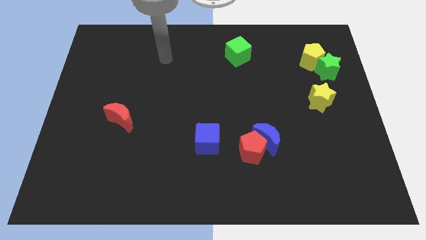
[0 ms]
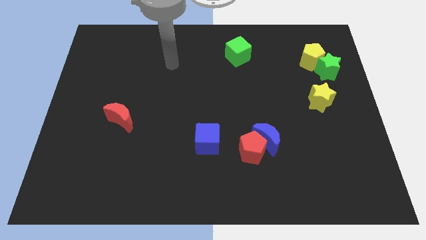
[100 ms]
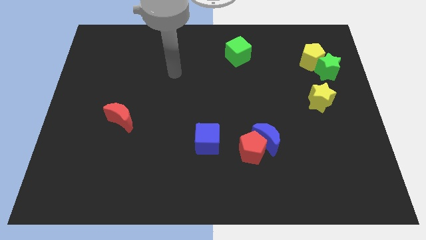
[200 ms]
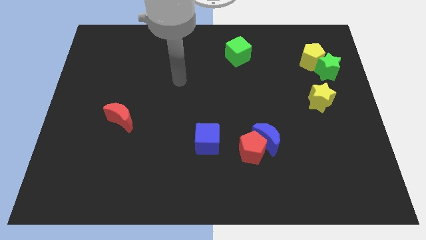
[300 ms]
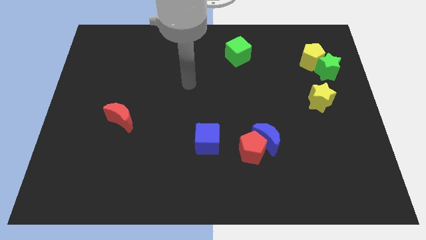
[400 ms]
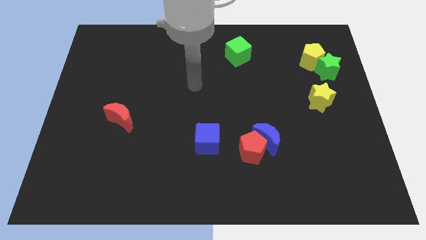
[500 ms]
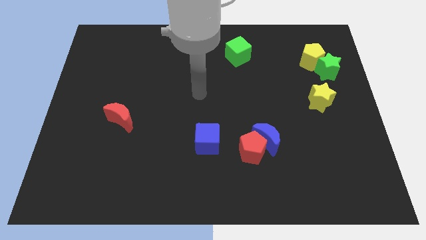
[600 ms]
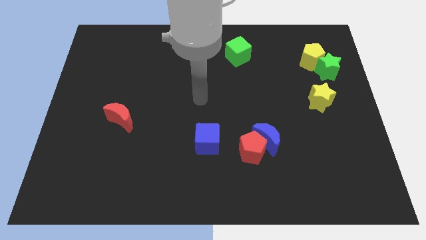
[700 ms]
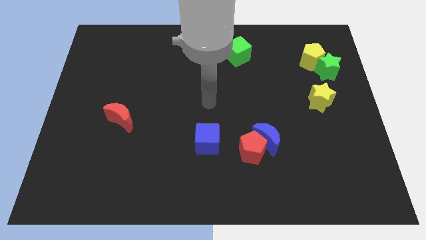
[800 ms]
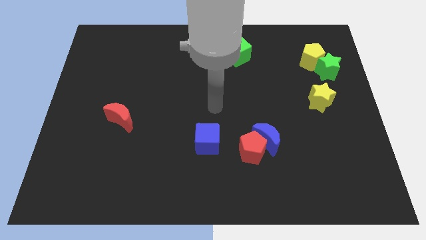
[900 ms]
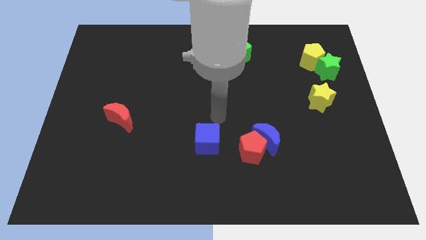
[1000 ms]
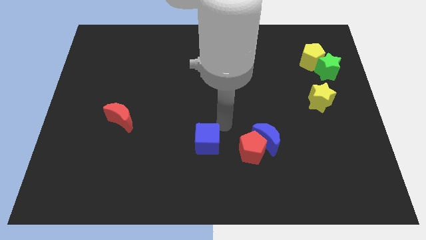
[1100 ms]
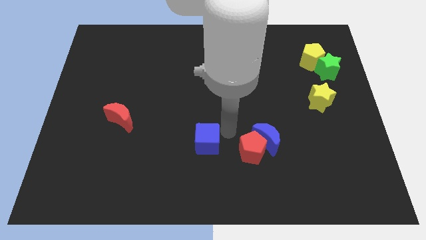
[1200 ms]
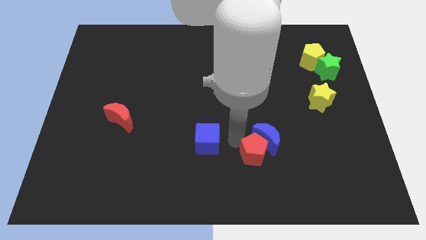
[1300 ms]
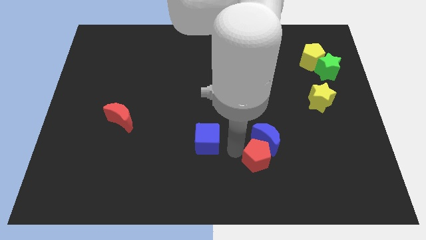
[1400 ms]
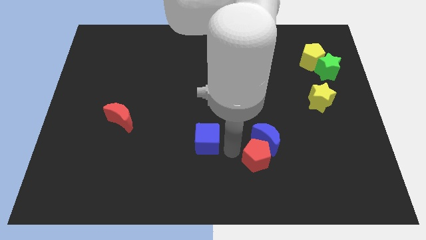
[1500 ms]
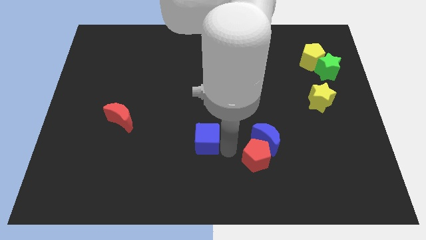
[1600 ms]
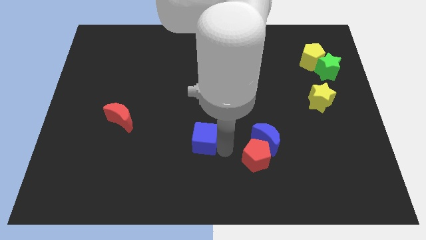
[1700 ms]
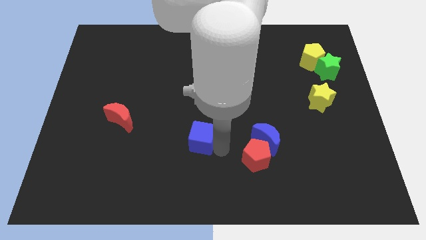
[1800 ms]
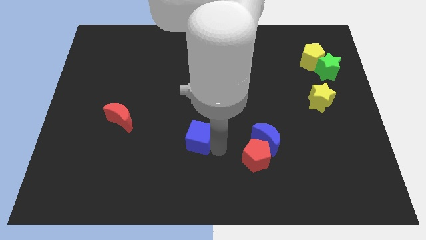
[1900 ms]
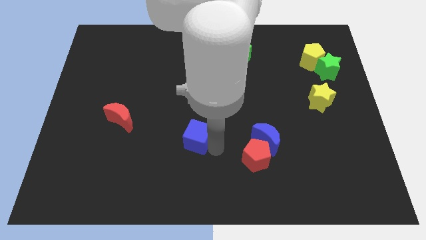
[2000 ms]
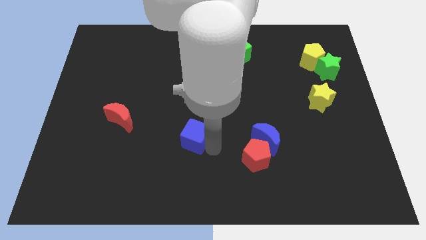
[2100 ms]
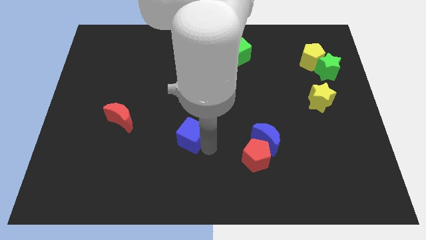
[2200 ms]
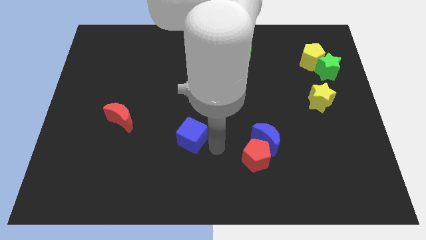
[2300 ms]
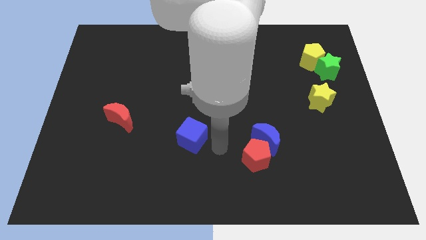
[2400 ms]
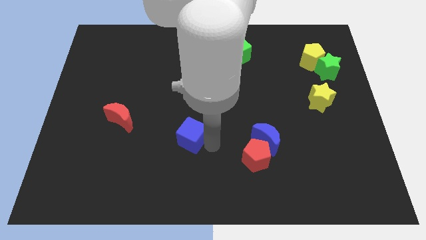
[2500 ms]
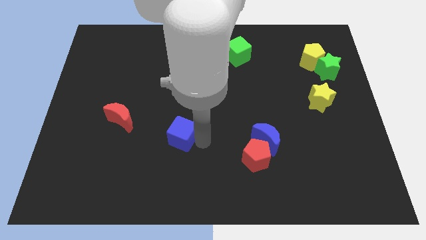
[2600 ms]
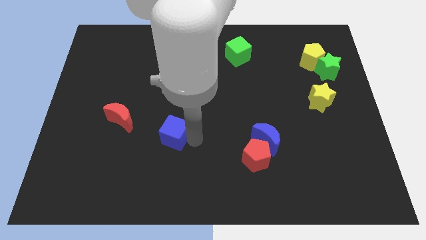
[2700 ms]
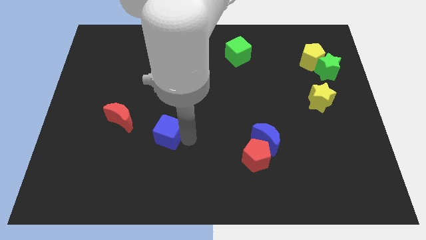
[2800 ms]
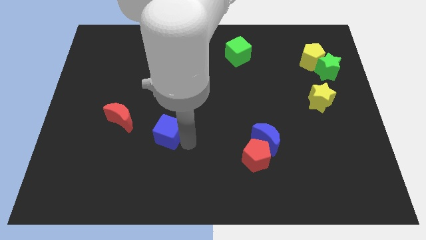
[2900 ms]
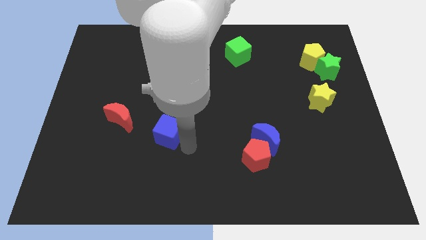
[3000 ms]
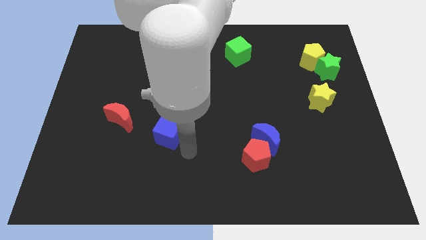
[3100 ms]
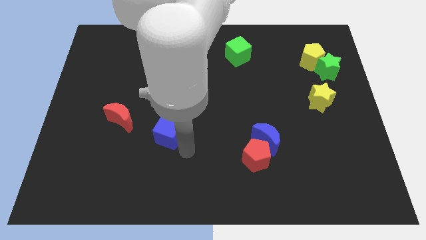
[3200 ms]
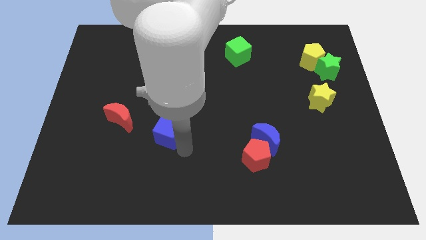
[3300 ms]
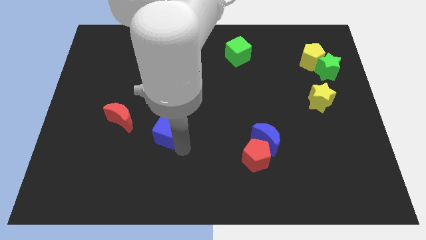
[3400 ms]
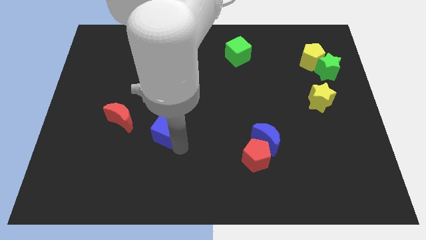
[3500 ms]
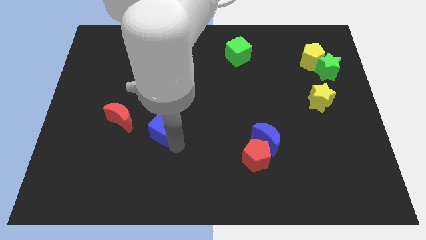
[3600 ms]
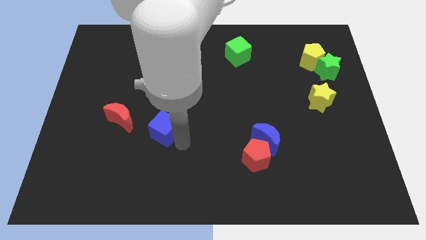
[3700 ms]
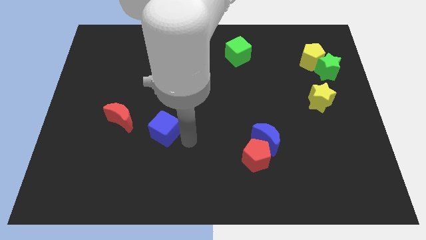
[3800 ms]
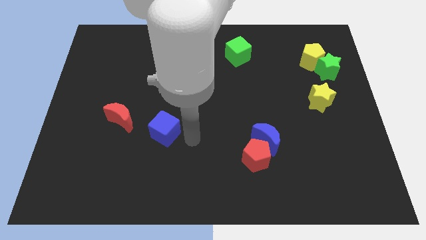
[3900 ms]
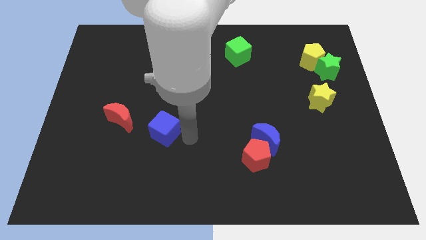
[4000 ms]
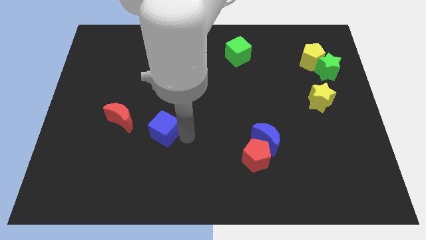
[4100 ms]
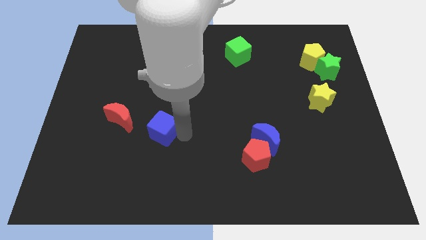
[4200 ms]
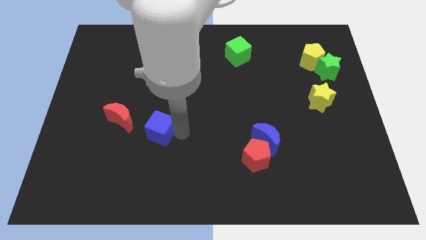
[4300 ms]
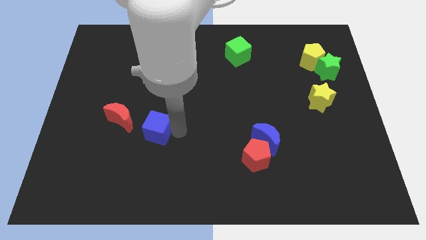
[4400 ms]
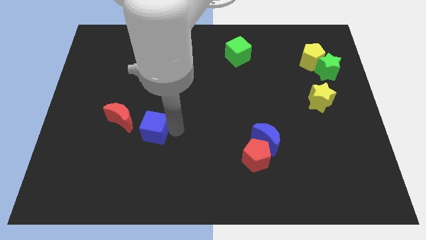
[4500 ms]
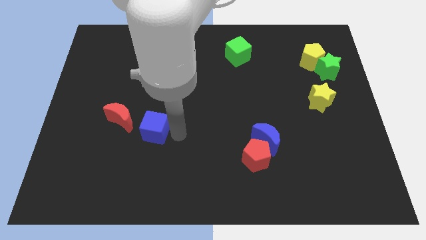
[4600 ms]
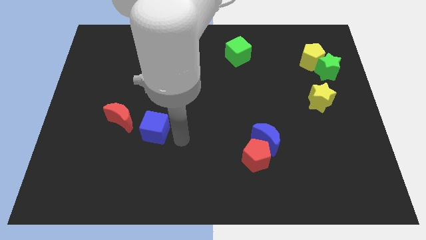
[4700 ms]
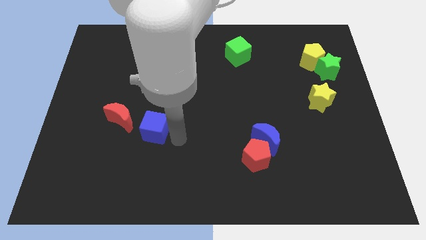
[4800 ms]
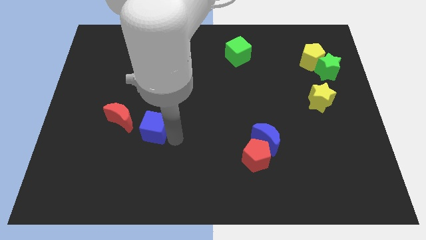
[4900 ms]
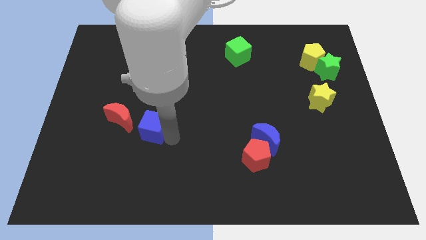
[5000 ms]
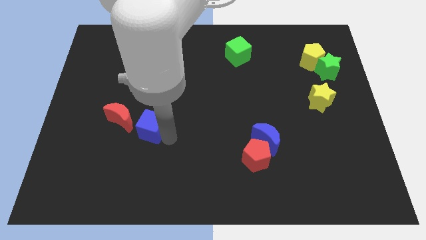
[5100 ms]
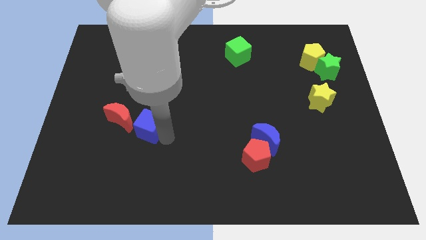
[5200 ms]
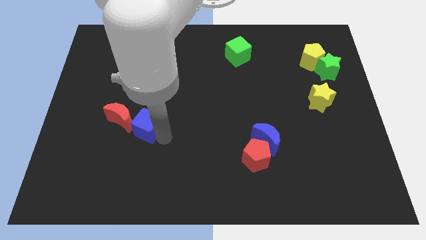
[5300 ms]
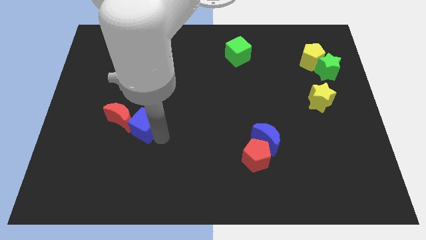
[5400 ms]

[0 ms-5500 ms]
put the blue cube close to the red moon

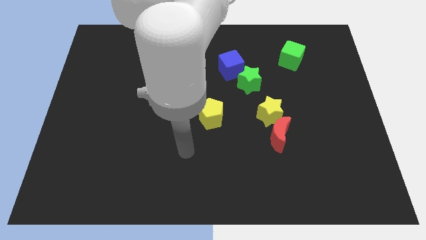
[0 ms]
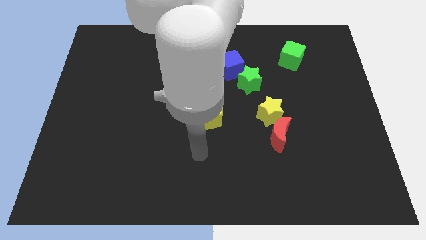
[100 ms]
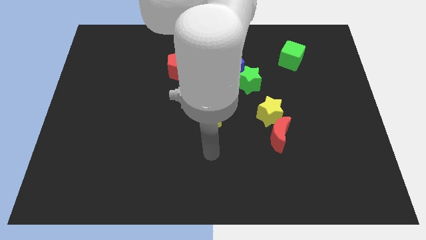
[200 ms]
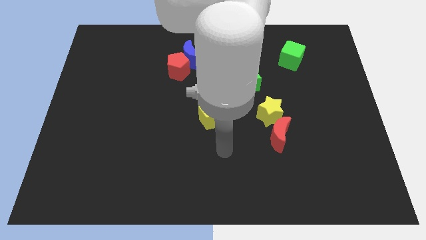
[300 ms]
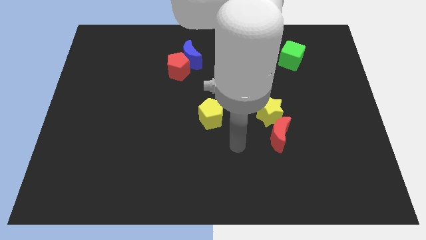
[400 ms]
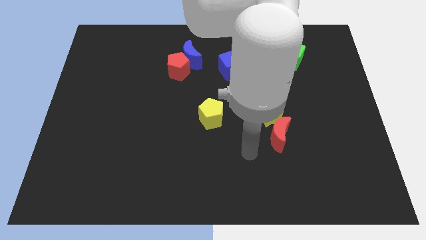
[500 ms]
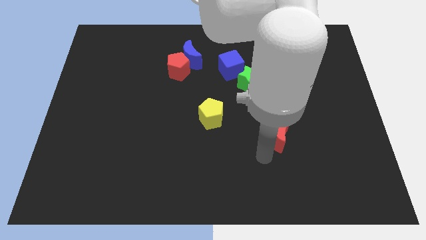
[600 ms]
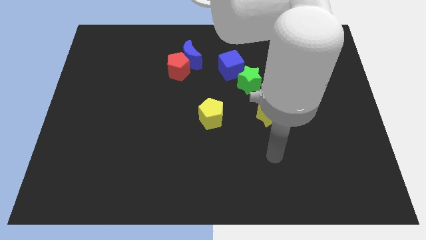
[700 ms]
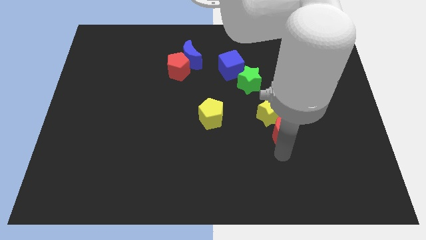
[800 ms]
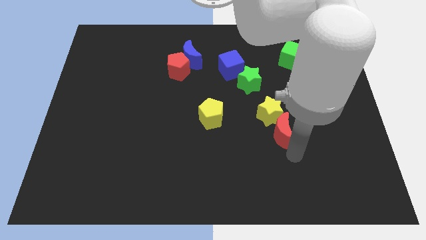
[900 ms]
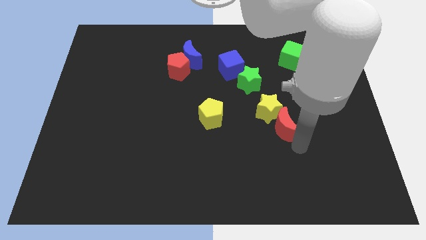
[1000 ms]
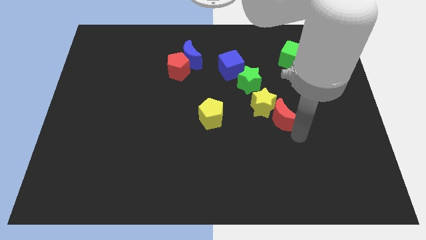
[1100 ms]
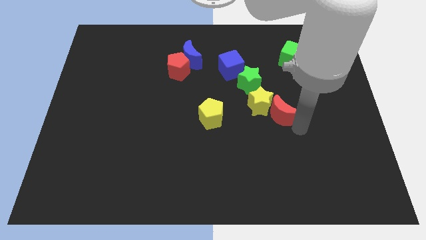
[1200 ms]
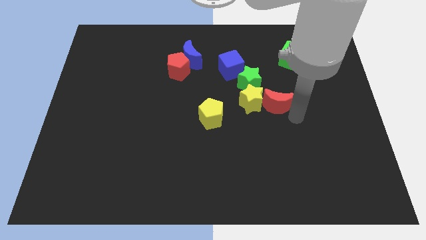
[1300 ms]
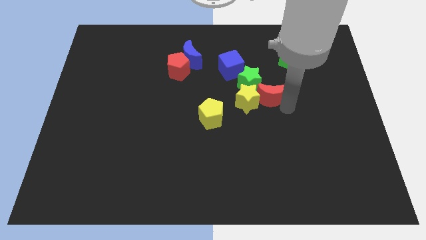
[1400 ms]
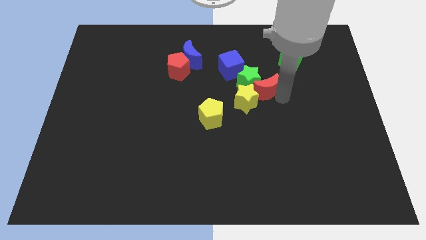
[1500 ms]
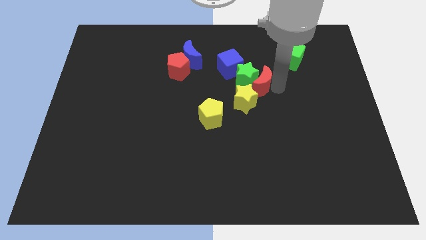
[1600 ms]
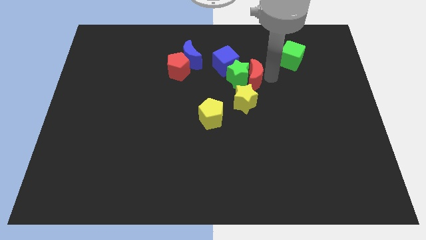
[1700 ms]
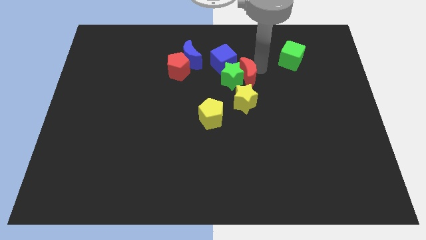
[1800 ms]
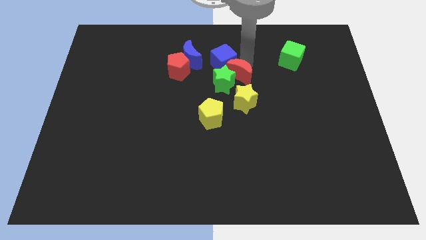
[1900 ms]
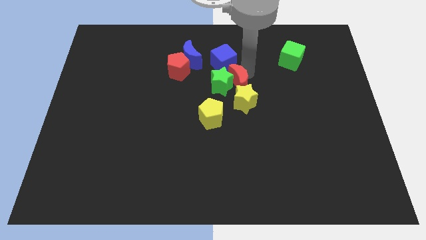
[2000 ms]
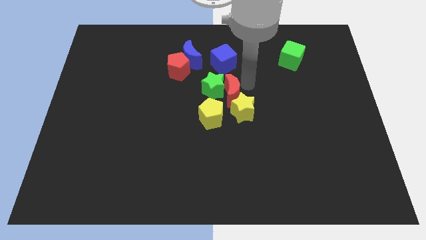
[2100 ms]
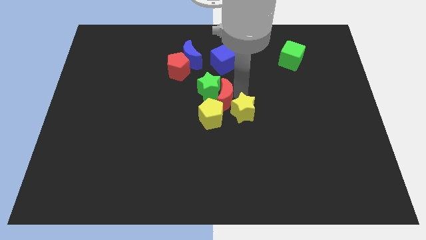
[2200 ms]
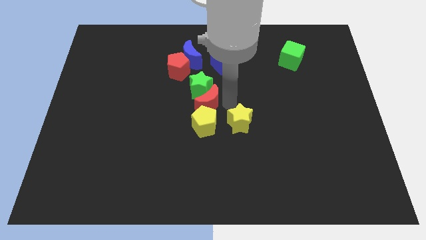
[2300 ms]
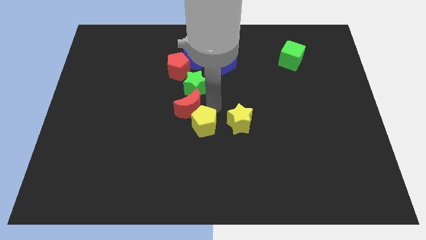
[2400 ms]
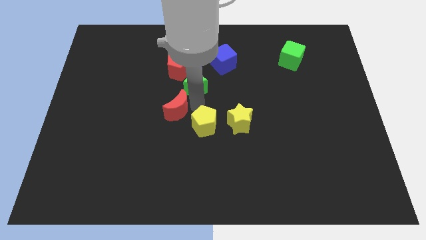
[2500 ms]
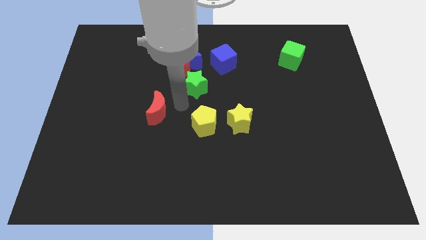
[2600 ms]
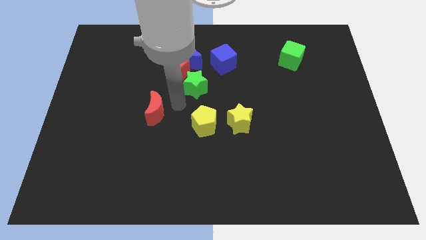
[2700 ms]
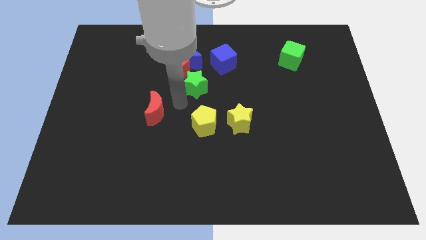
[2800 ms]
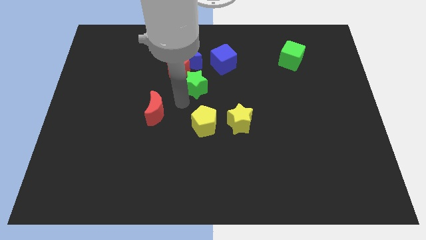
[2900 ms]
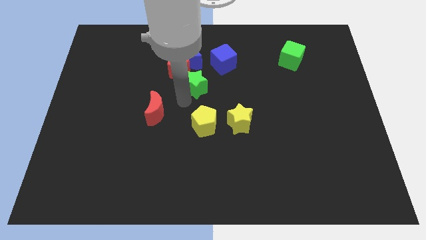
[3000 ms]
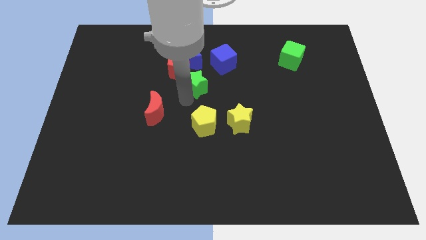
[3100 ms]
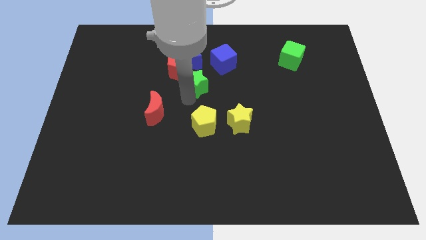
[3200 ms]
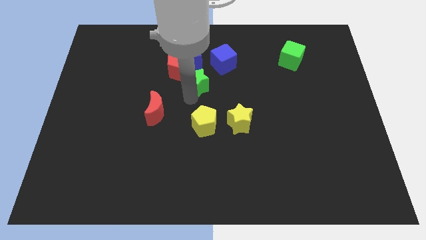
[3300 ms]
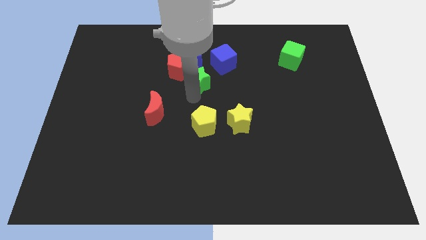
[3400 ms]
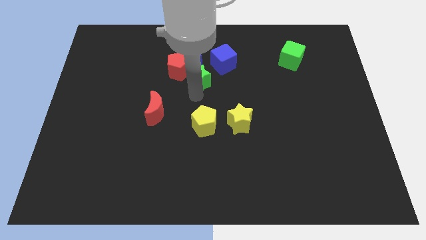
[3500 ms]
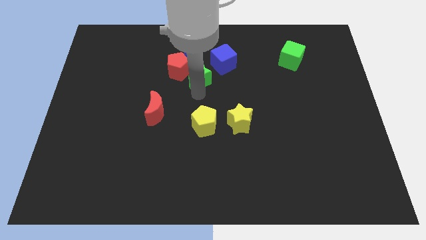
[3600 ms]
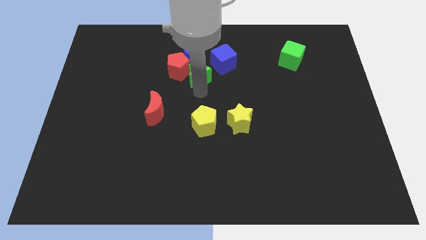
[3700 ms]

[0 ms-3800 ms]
push the green star to the red pentagon
